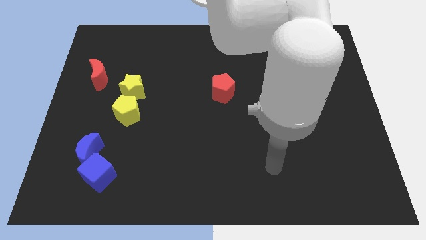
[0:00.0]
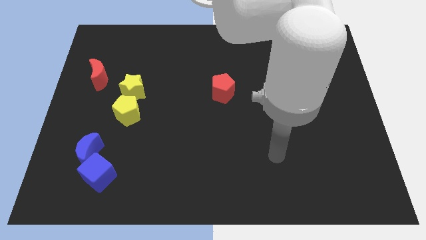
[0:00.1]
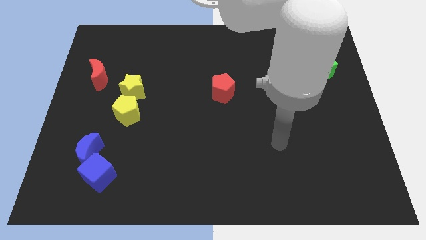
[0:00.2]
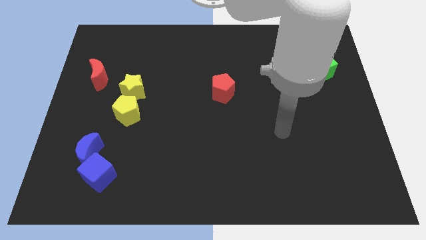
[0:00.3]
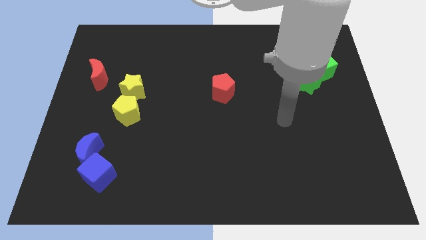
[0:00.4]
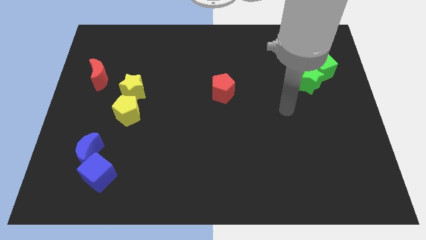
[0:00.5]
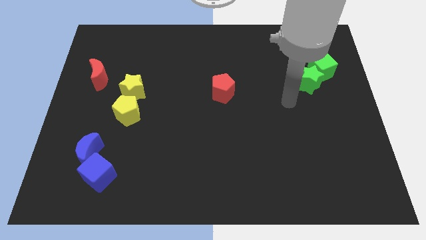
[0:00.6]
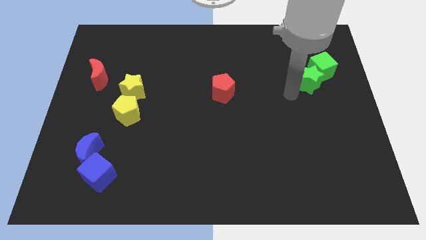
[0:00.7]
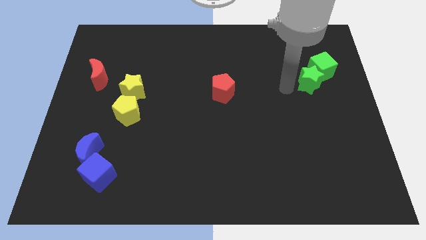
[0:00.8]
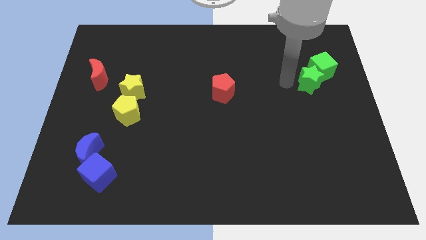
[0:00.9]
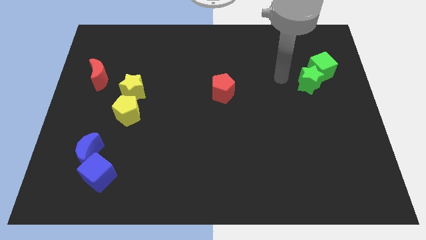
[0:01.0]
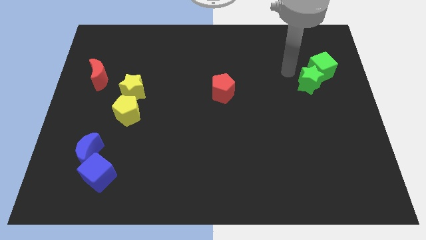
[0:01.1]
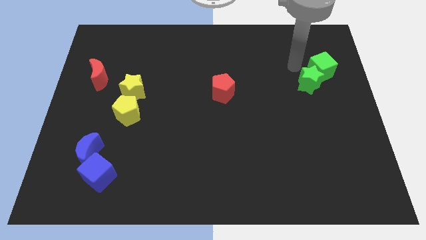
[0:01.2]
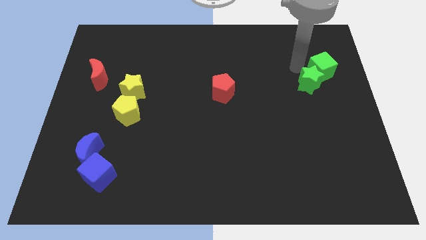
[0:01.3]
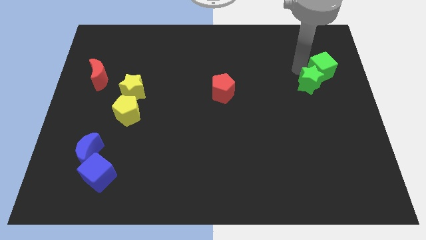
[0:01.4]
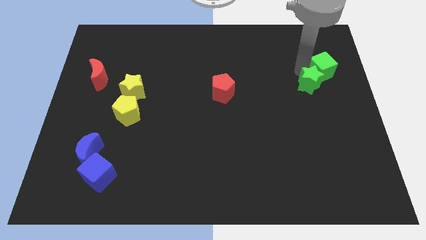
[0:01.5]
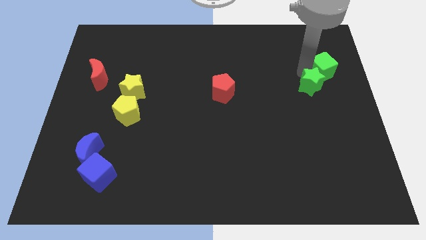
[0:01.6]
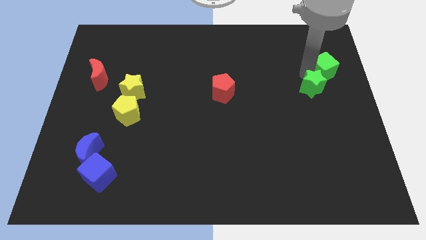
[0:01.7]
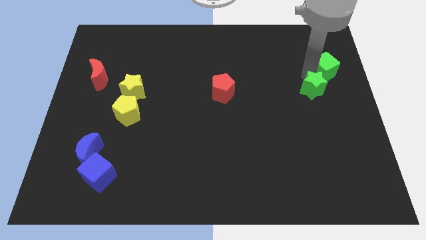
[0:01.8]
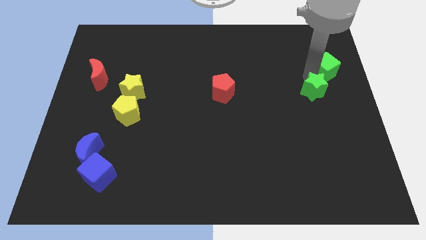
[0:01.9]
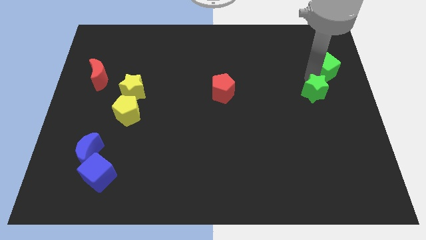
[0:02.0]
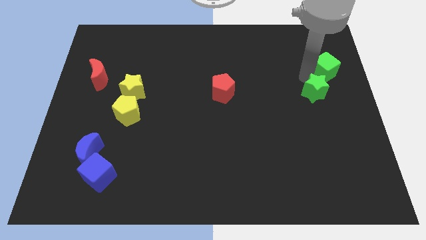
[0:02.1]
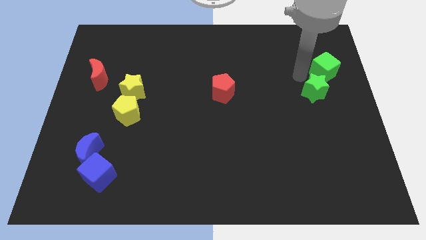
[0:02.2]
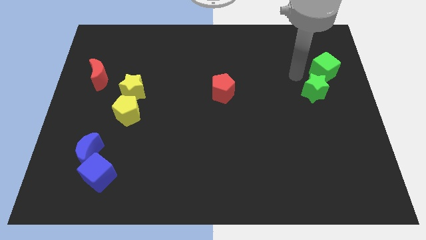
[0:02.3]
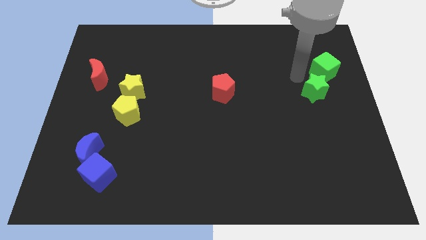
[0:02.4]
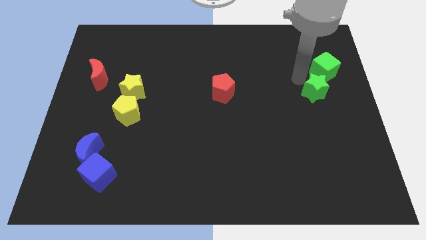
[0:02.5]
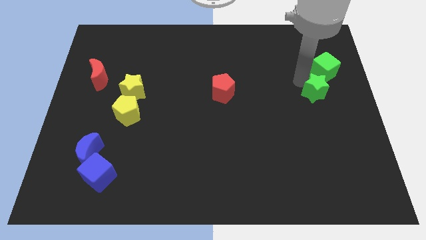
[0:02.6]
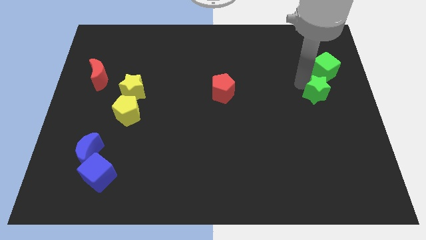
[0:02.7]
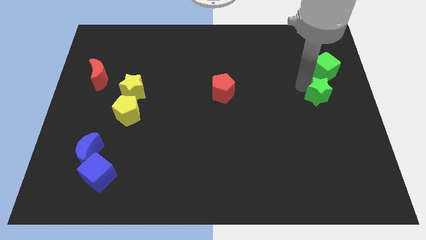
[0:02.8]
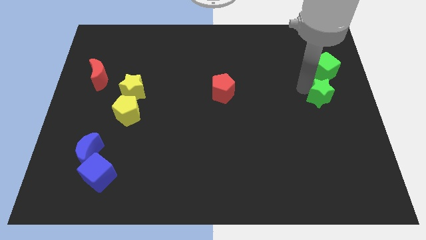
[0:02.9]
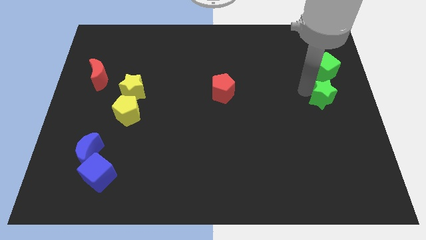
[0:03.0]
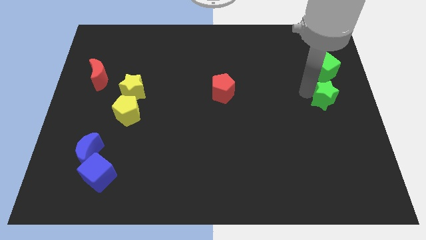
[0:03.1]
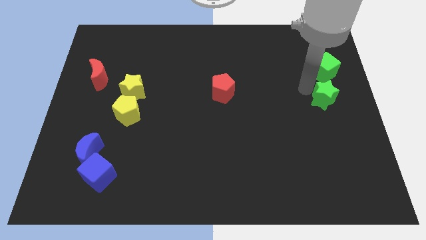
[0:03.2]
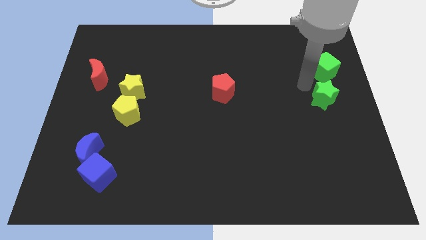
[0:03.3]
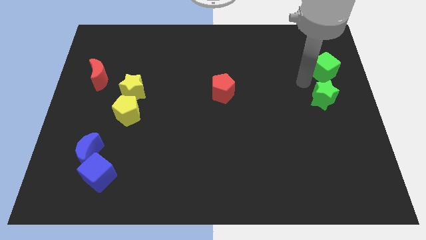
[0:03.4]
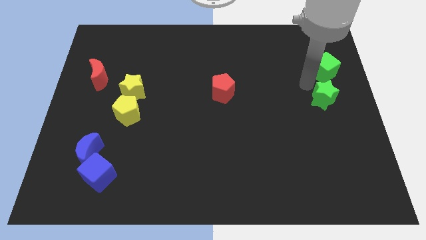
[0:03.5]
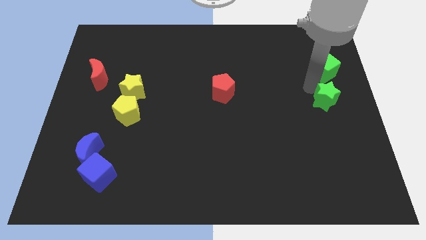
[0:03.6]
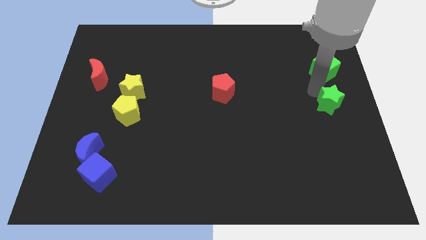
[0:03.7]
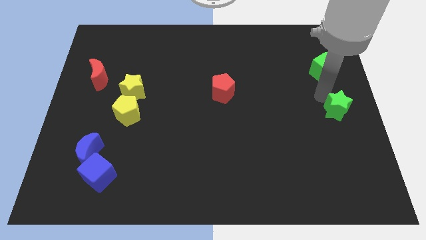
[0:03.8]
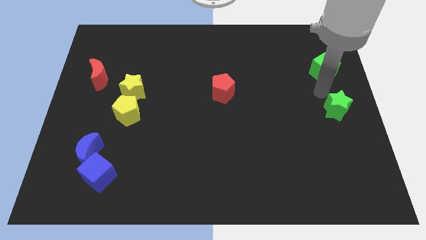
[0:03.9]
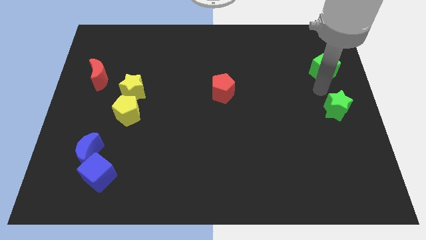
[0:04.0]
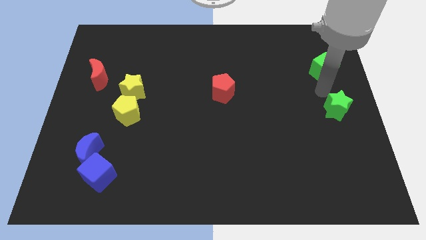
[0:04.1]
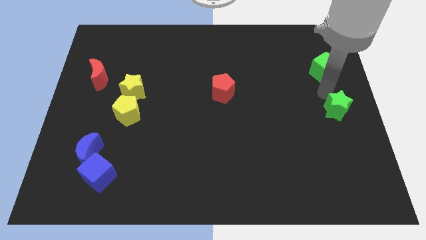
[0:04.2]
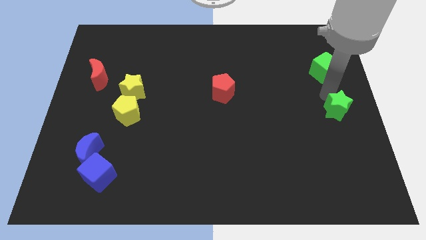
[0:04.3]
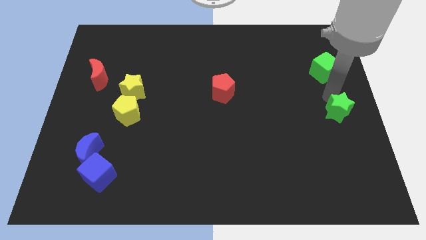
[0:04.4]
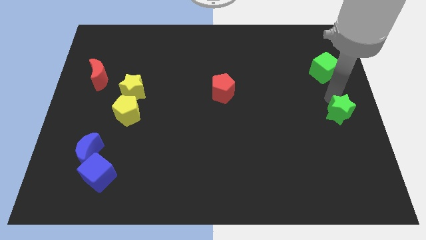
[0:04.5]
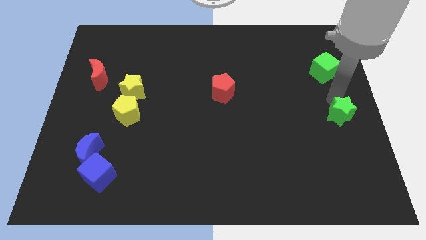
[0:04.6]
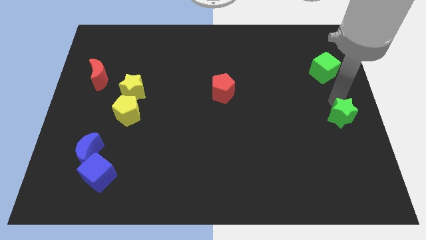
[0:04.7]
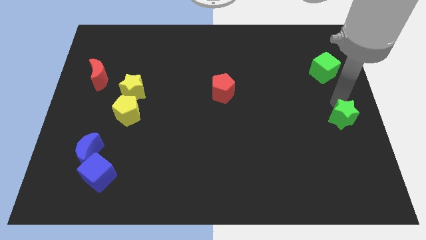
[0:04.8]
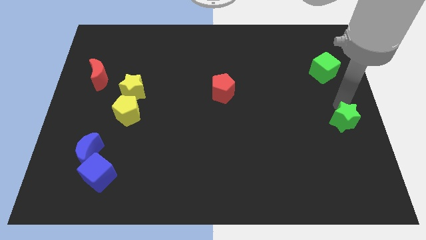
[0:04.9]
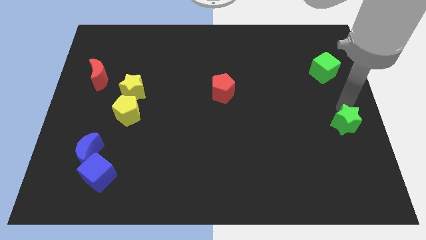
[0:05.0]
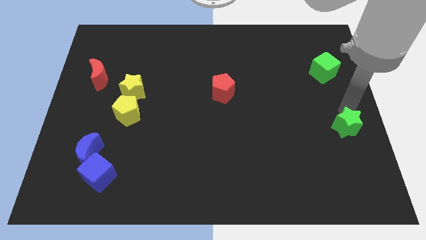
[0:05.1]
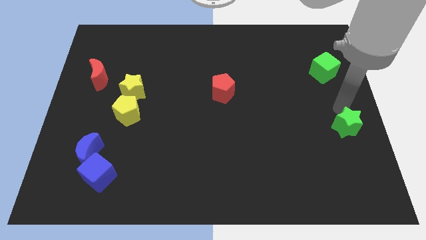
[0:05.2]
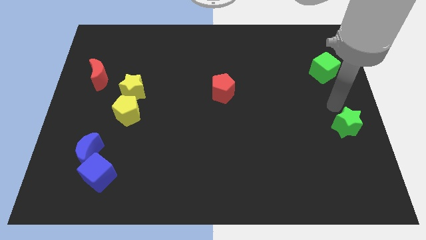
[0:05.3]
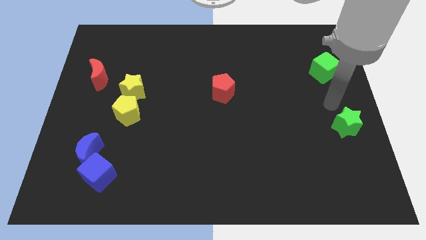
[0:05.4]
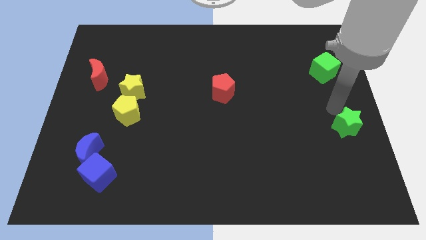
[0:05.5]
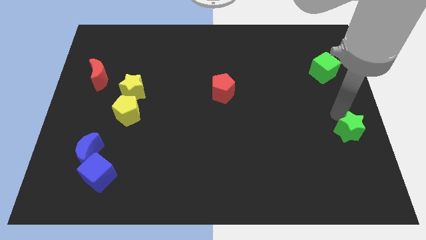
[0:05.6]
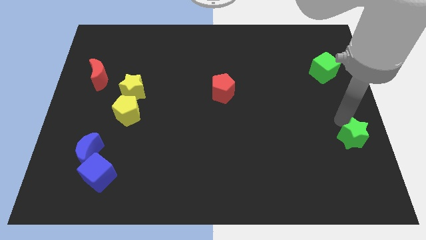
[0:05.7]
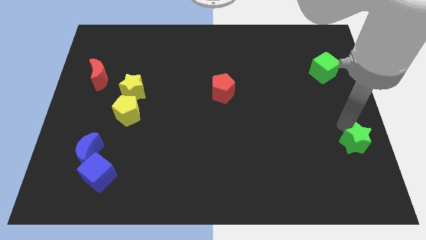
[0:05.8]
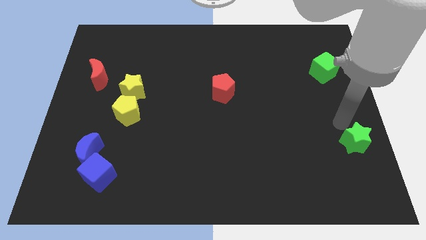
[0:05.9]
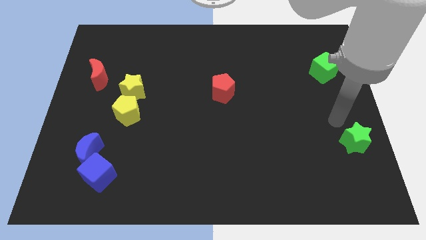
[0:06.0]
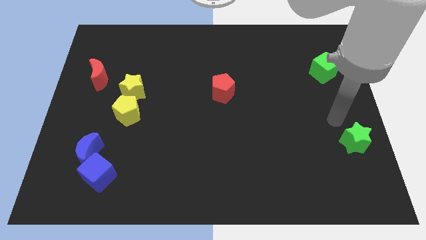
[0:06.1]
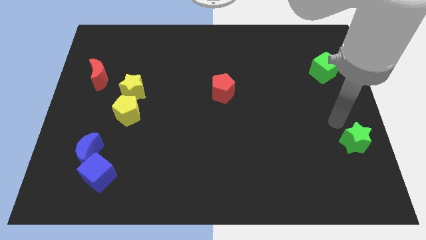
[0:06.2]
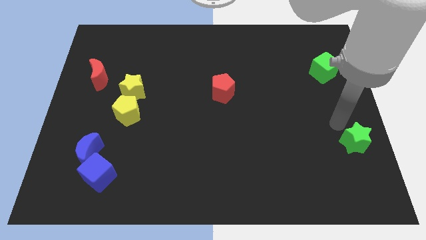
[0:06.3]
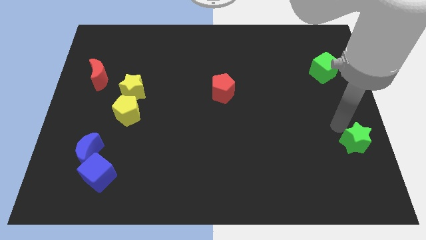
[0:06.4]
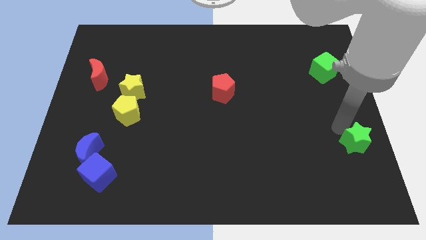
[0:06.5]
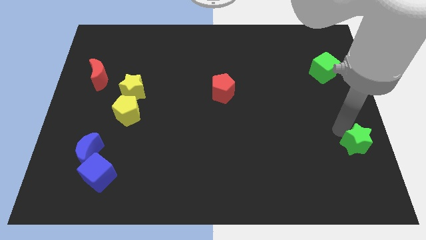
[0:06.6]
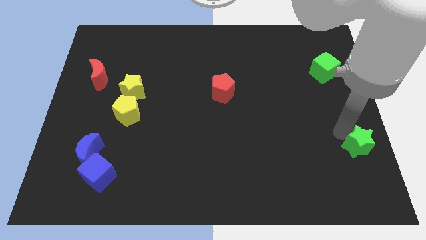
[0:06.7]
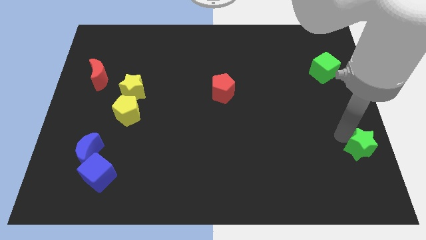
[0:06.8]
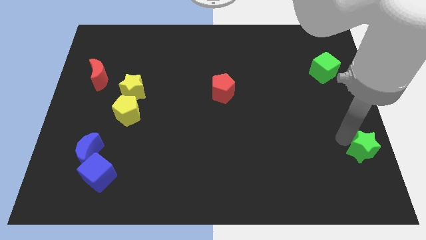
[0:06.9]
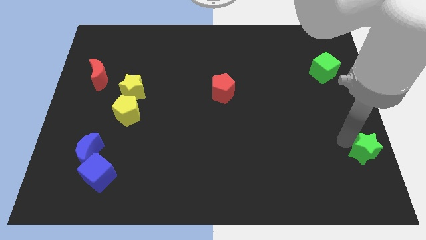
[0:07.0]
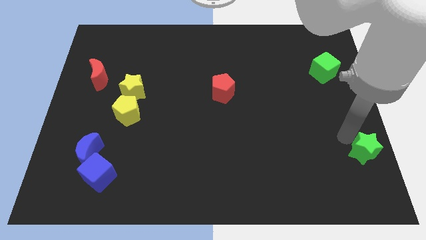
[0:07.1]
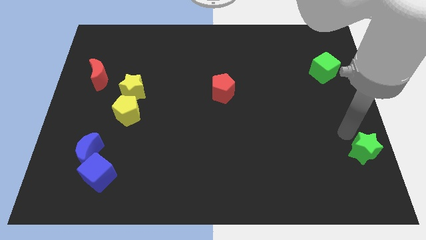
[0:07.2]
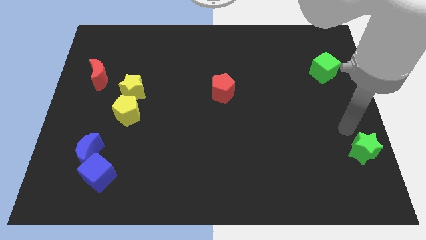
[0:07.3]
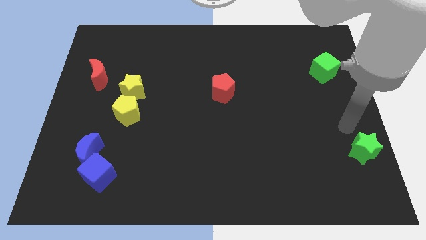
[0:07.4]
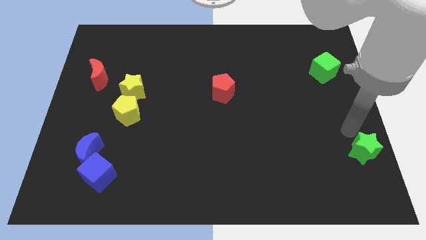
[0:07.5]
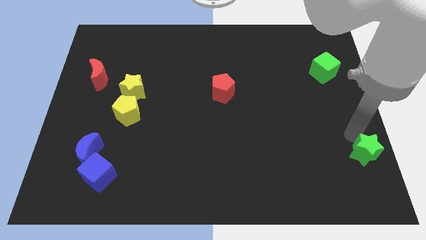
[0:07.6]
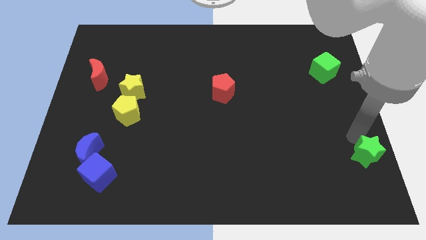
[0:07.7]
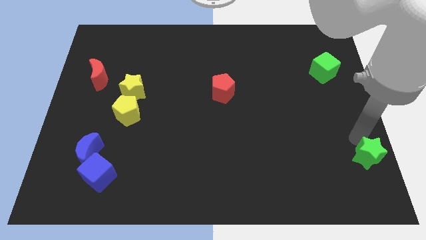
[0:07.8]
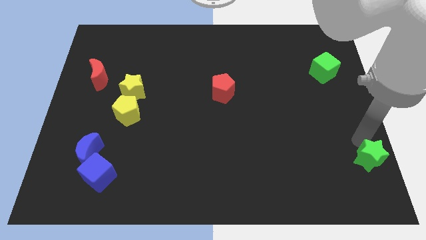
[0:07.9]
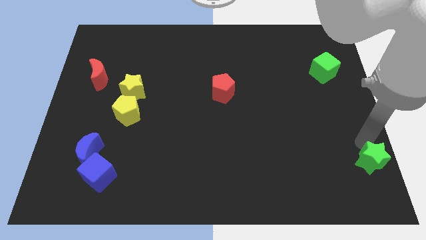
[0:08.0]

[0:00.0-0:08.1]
put the green star to the bottom right corner
